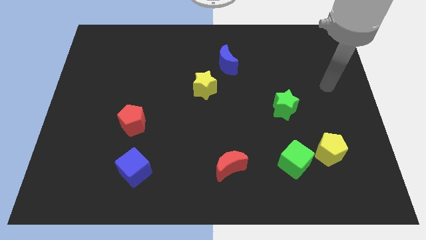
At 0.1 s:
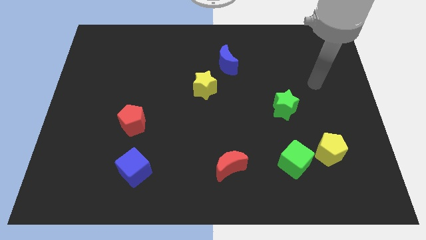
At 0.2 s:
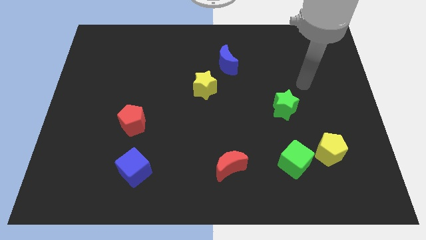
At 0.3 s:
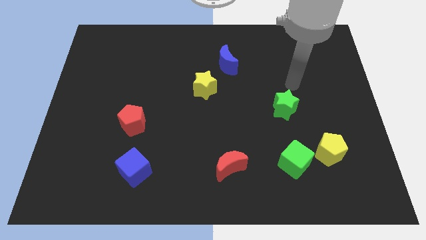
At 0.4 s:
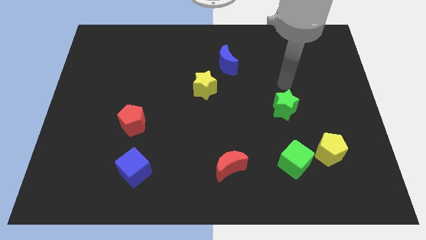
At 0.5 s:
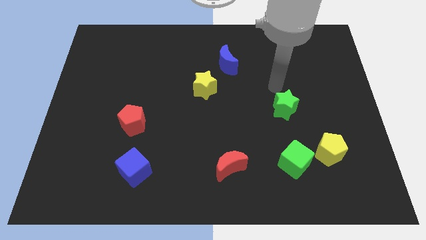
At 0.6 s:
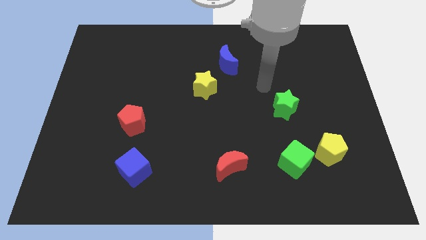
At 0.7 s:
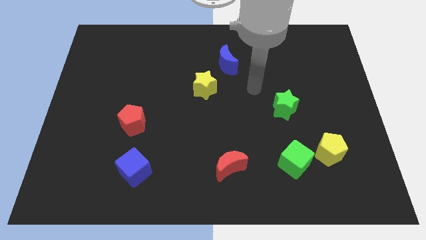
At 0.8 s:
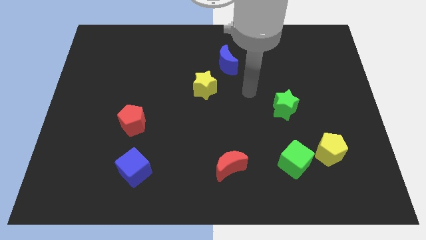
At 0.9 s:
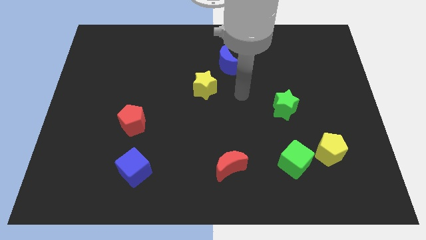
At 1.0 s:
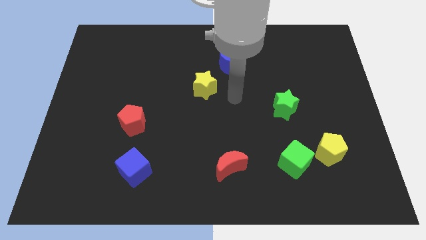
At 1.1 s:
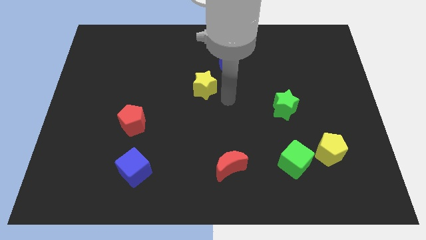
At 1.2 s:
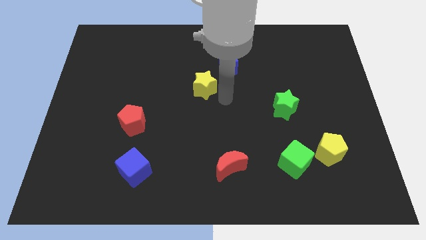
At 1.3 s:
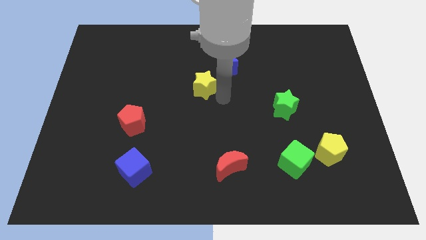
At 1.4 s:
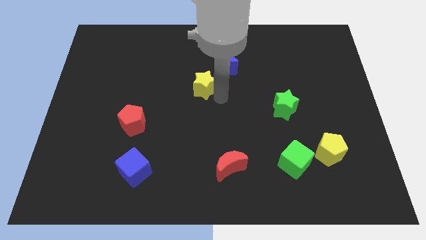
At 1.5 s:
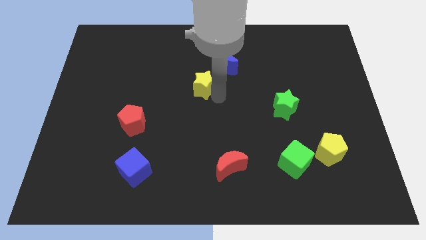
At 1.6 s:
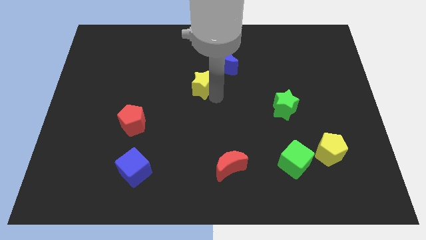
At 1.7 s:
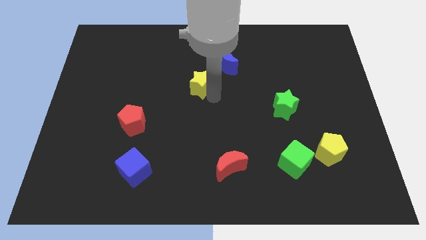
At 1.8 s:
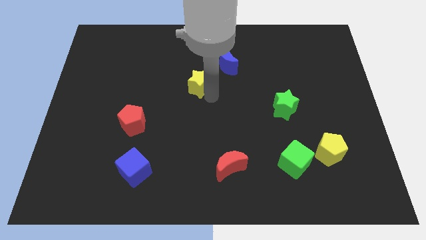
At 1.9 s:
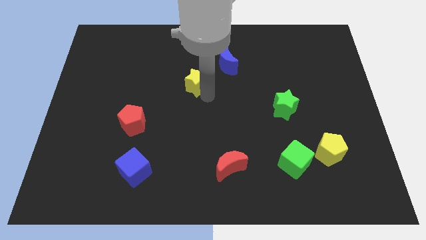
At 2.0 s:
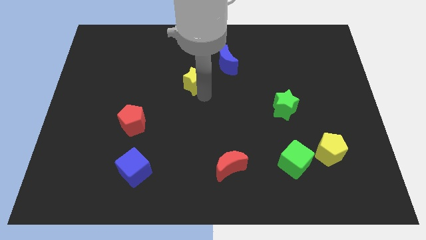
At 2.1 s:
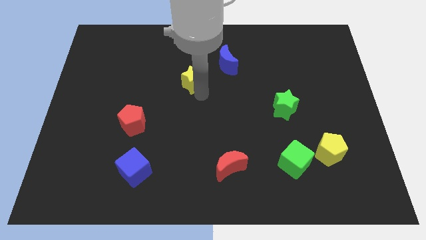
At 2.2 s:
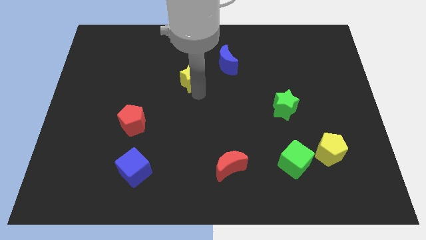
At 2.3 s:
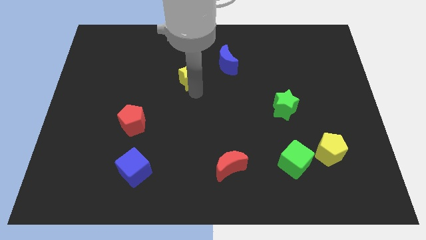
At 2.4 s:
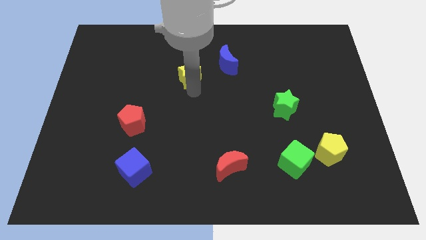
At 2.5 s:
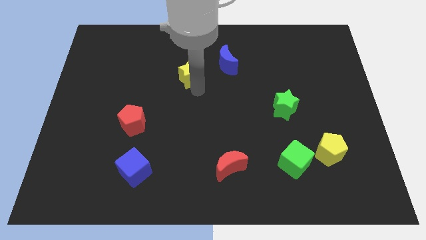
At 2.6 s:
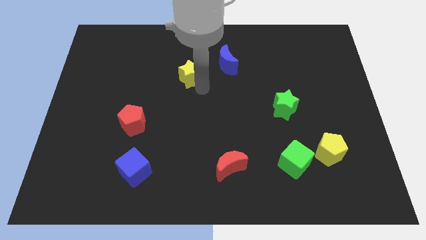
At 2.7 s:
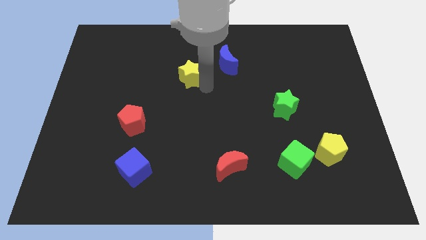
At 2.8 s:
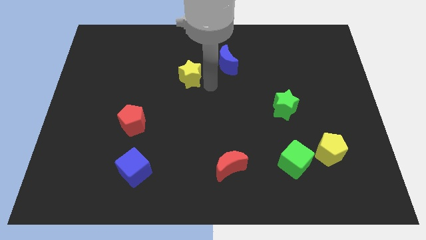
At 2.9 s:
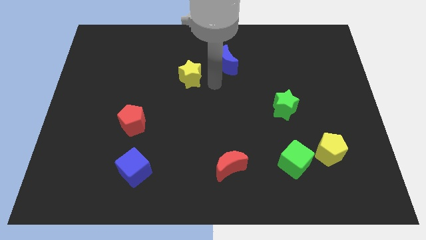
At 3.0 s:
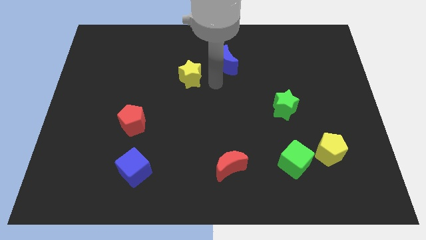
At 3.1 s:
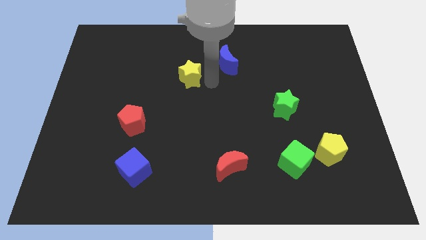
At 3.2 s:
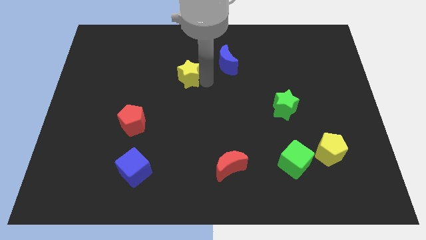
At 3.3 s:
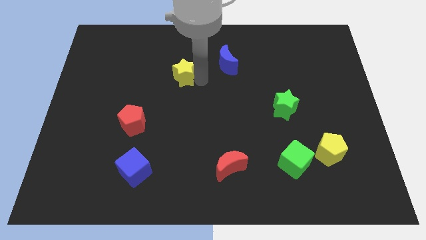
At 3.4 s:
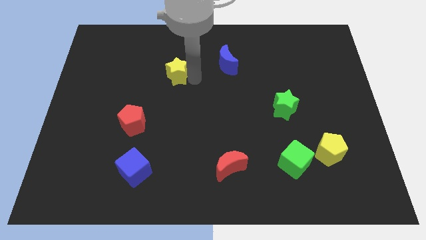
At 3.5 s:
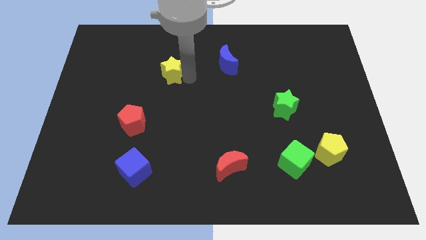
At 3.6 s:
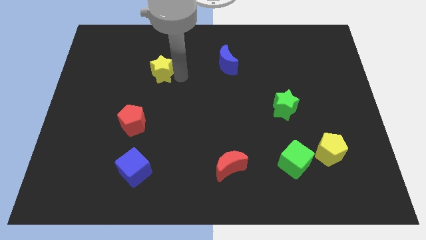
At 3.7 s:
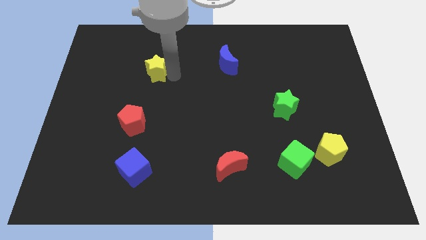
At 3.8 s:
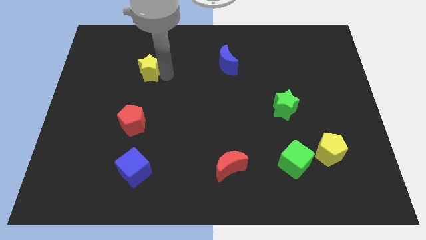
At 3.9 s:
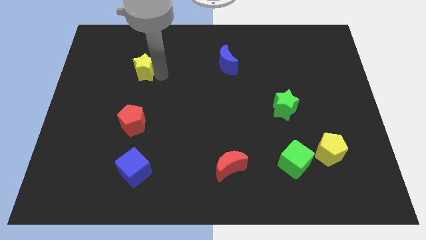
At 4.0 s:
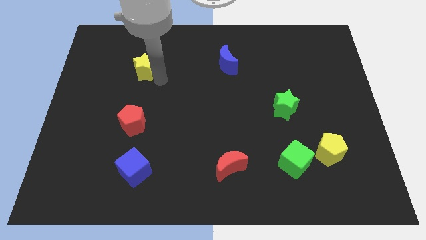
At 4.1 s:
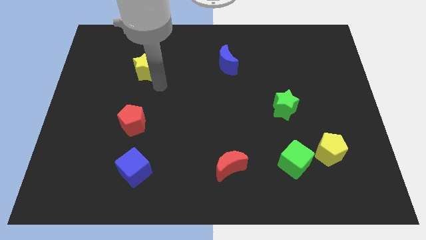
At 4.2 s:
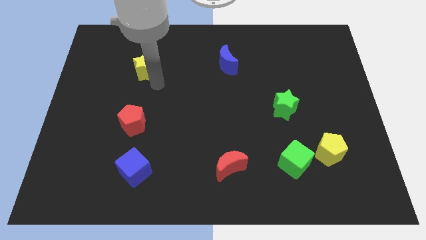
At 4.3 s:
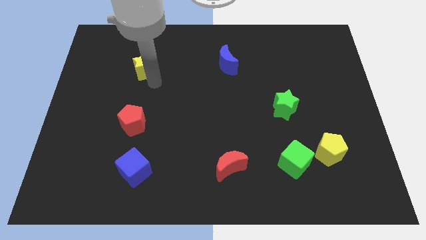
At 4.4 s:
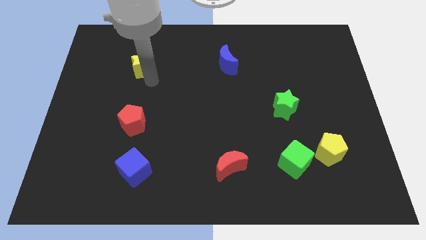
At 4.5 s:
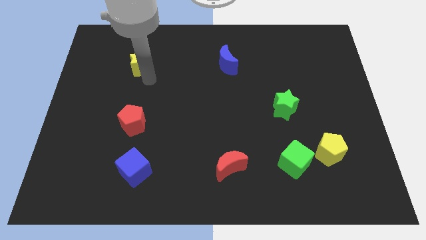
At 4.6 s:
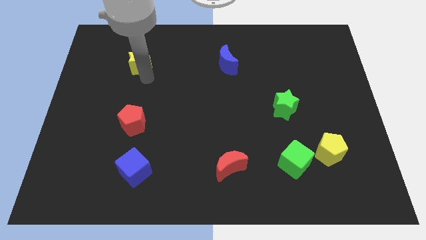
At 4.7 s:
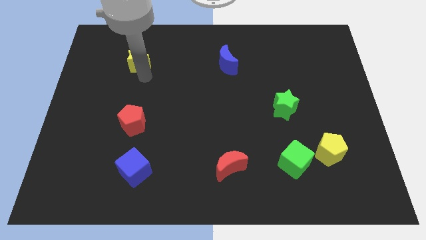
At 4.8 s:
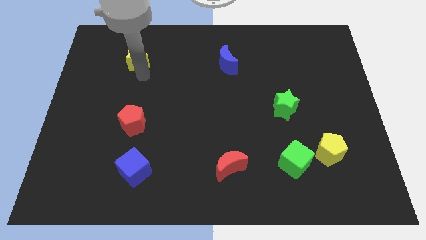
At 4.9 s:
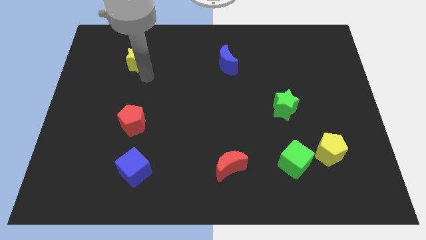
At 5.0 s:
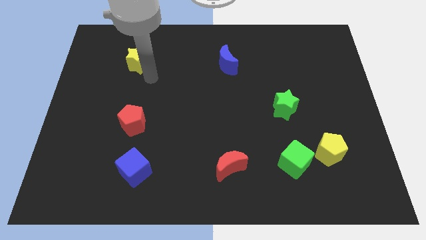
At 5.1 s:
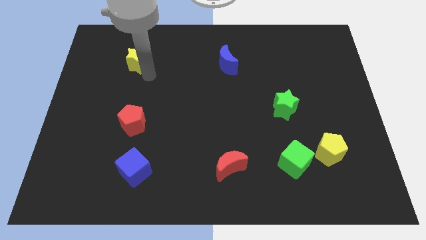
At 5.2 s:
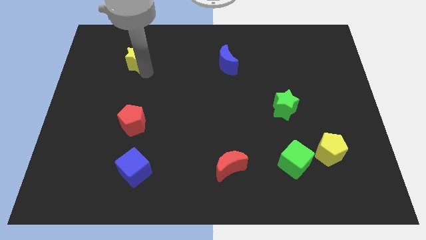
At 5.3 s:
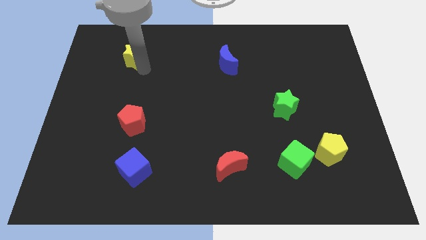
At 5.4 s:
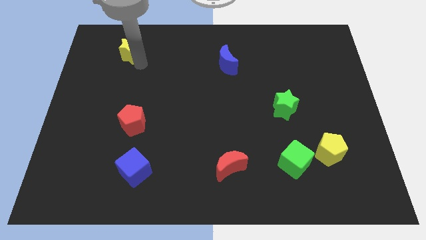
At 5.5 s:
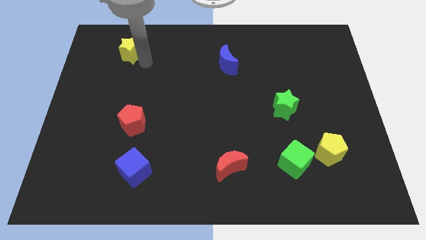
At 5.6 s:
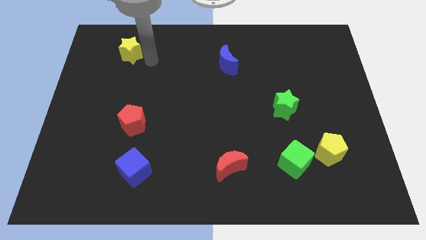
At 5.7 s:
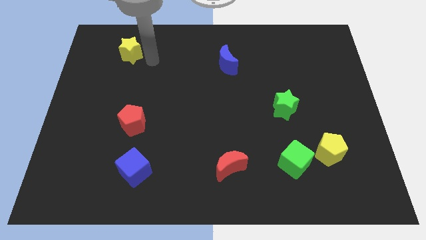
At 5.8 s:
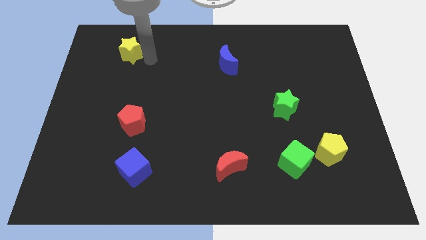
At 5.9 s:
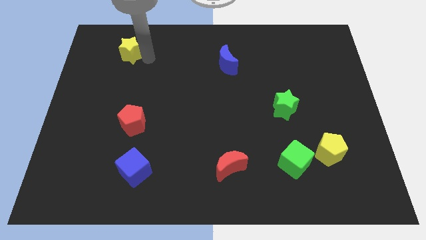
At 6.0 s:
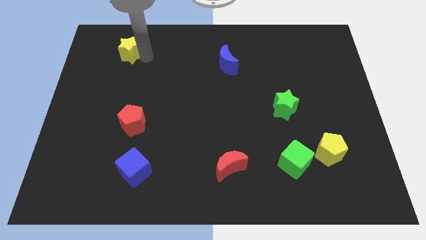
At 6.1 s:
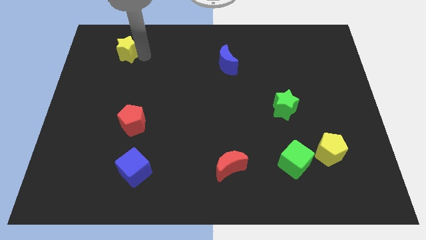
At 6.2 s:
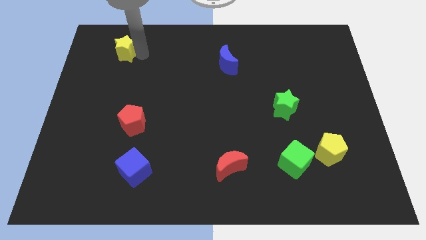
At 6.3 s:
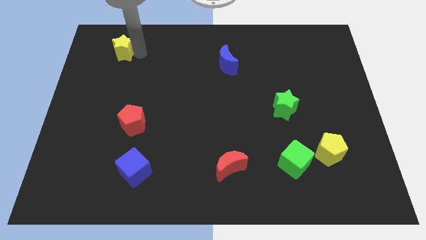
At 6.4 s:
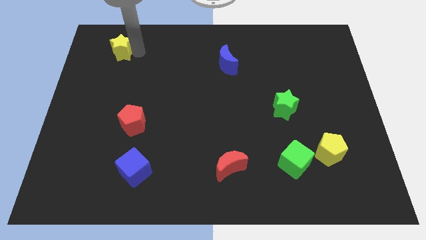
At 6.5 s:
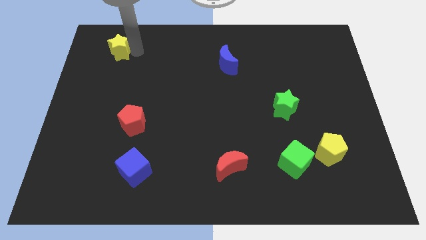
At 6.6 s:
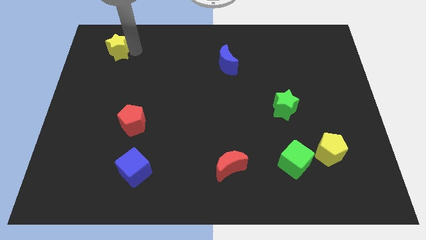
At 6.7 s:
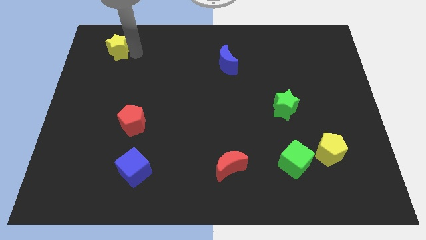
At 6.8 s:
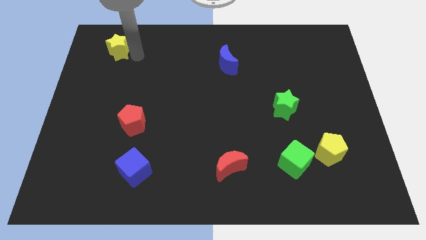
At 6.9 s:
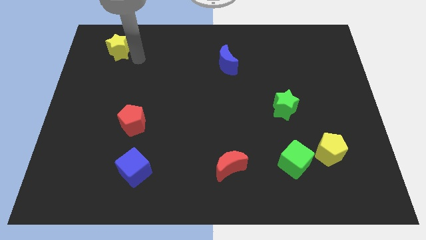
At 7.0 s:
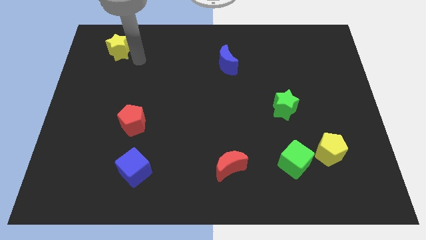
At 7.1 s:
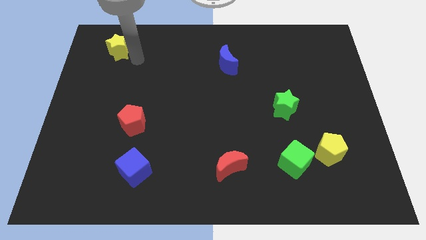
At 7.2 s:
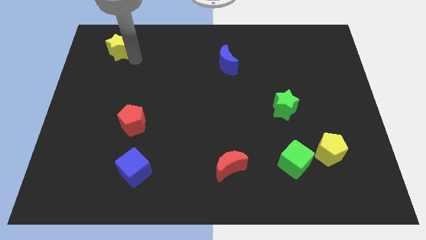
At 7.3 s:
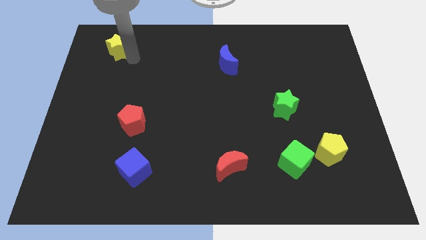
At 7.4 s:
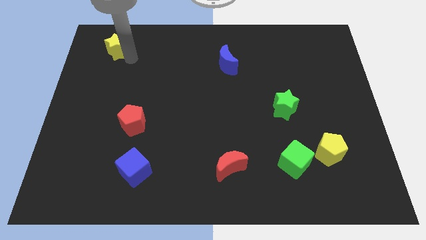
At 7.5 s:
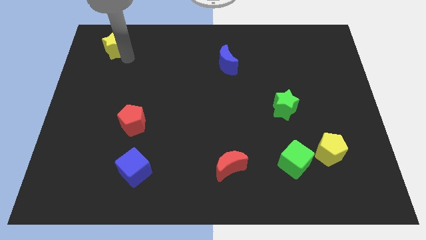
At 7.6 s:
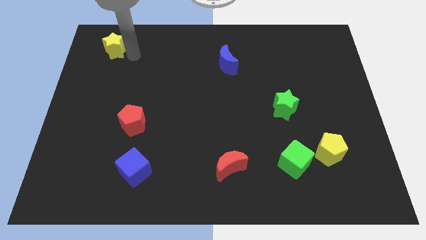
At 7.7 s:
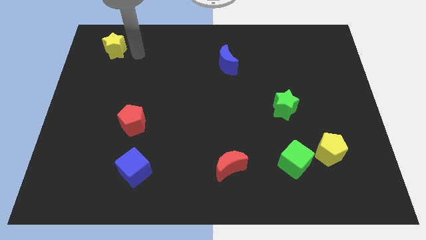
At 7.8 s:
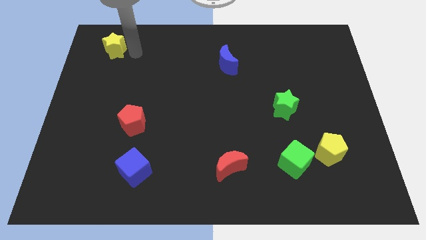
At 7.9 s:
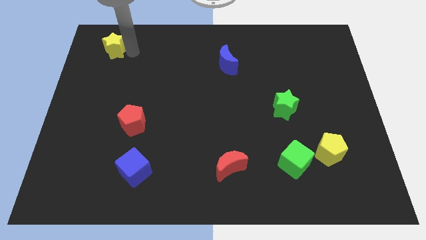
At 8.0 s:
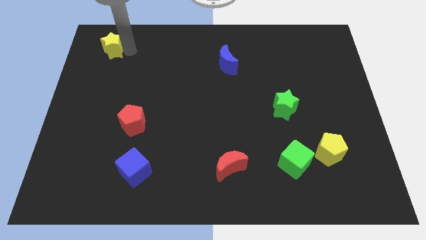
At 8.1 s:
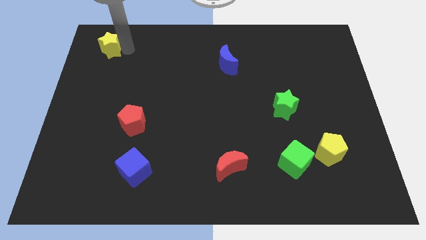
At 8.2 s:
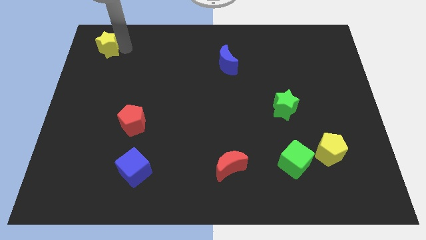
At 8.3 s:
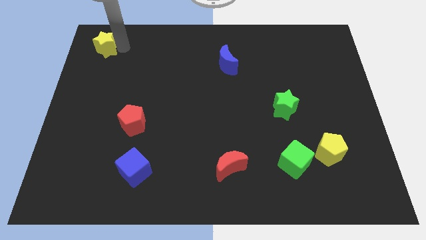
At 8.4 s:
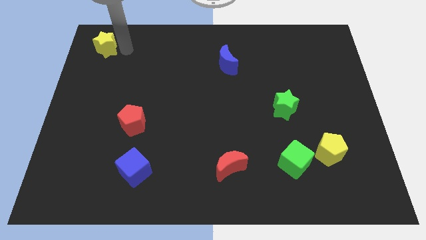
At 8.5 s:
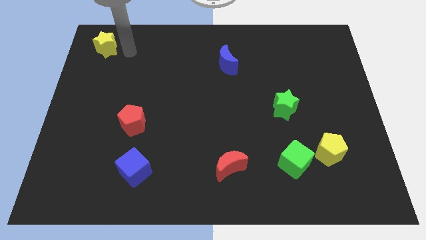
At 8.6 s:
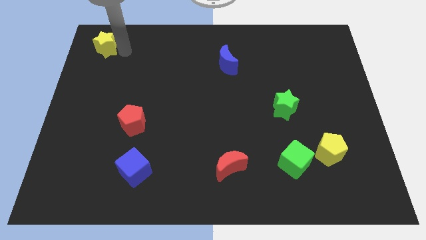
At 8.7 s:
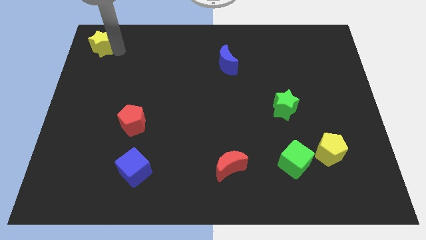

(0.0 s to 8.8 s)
move the yellow star to the top left
